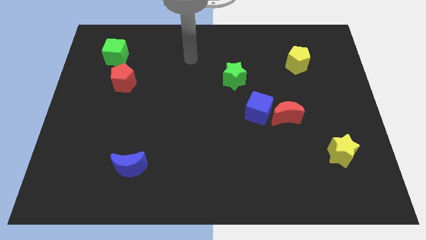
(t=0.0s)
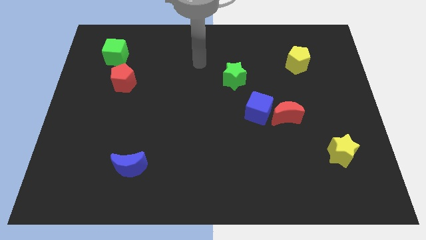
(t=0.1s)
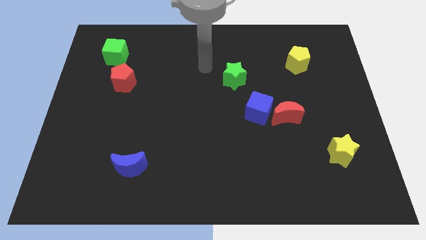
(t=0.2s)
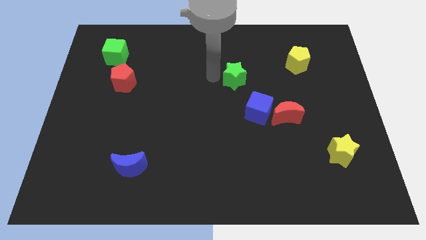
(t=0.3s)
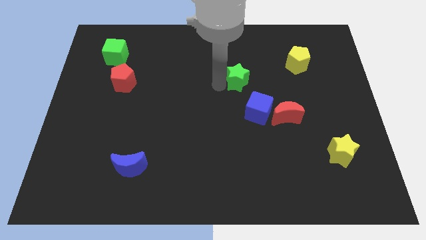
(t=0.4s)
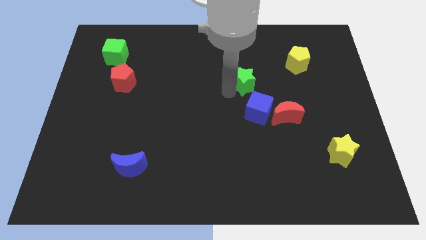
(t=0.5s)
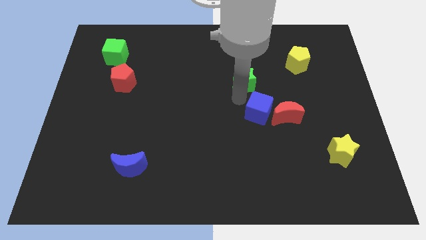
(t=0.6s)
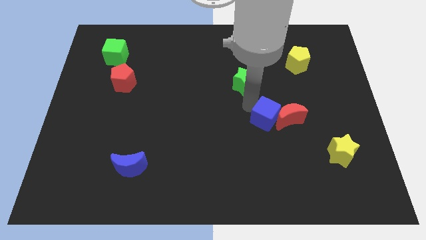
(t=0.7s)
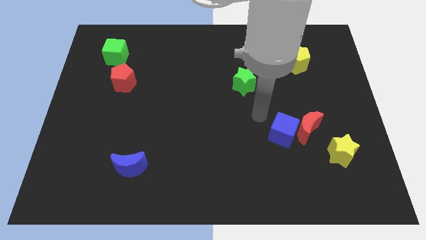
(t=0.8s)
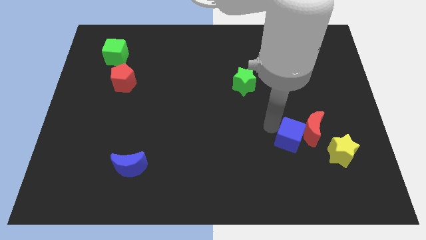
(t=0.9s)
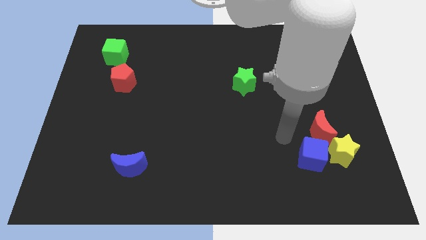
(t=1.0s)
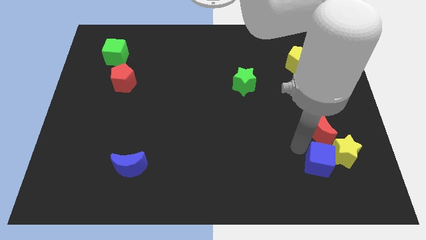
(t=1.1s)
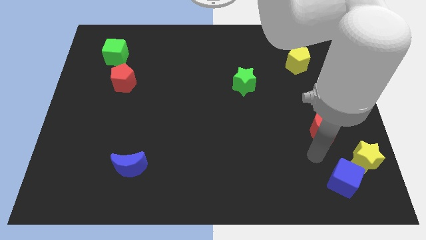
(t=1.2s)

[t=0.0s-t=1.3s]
pull the red moon apart from the blue cube

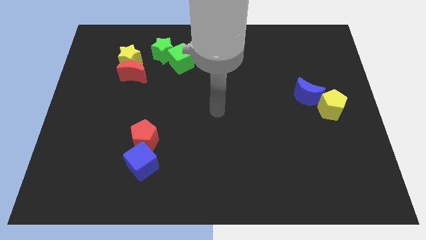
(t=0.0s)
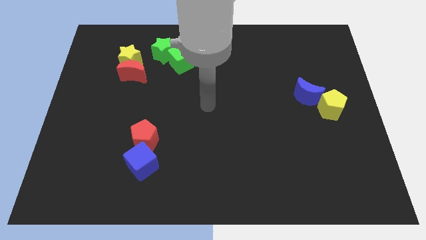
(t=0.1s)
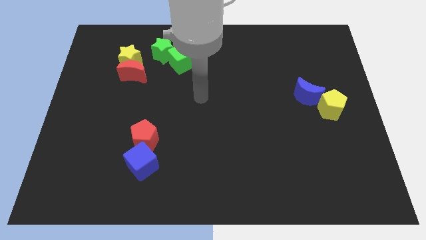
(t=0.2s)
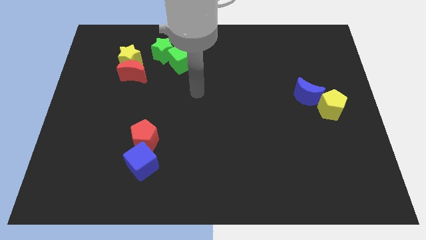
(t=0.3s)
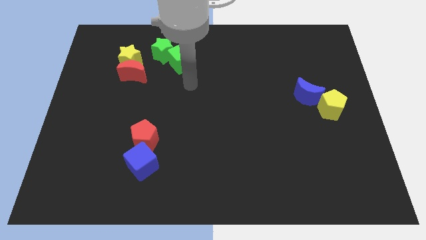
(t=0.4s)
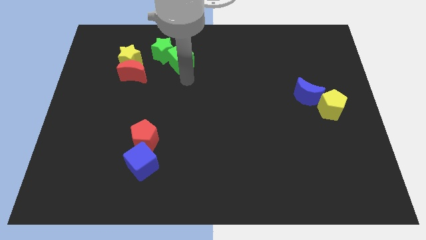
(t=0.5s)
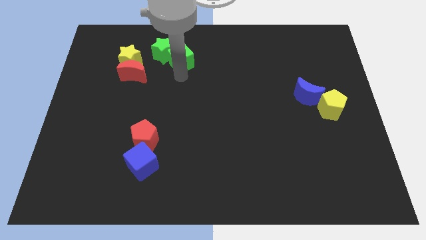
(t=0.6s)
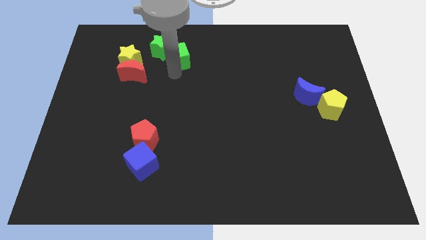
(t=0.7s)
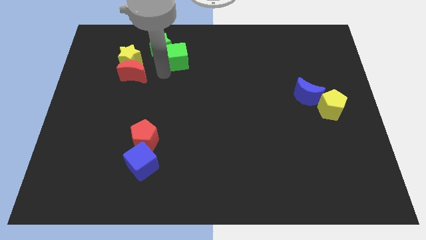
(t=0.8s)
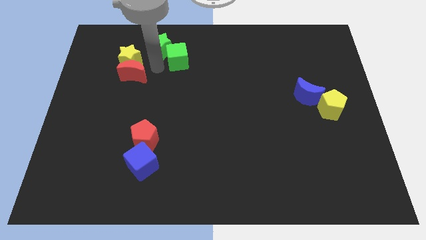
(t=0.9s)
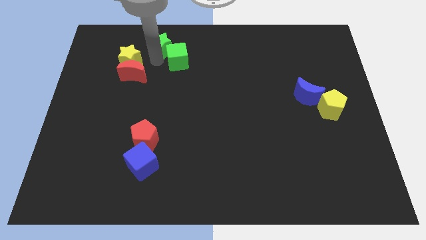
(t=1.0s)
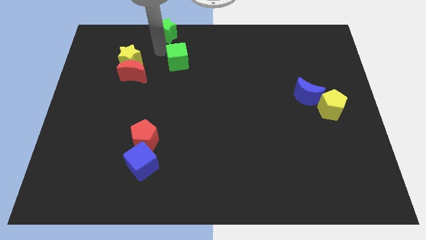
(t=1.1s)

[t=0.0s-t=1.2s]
pull the green cube apart from the green star

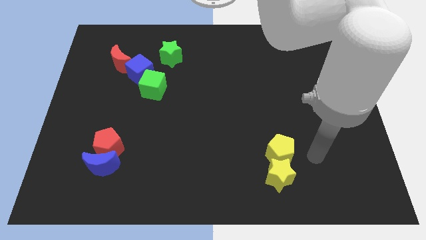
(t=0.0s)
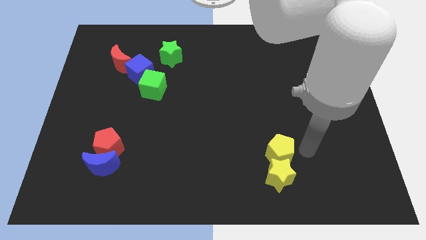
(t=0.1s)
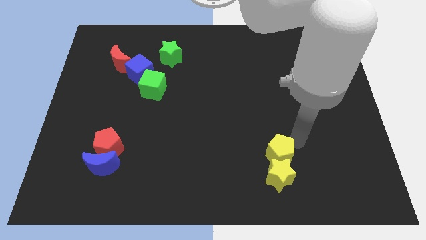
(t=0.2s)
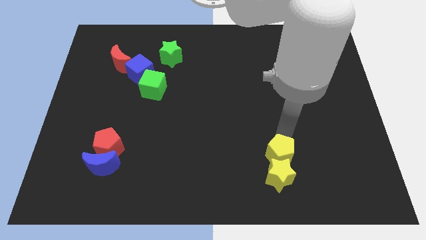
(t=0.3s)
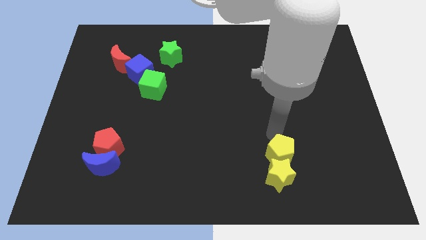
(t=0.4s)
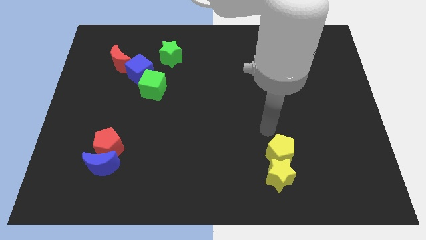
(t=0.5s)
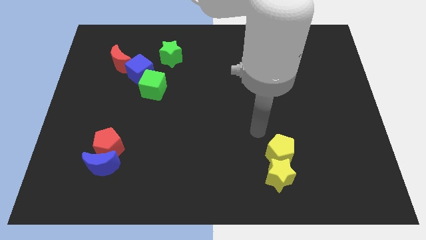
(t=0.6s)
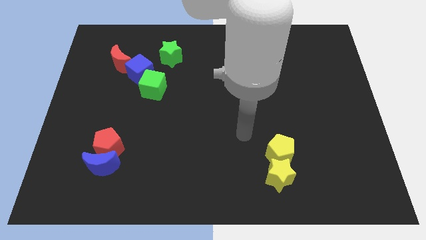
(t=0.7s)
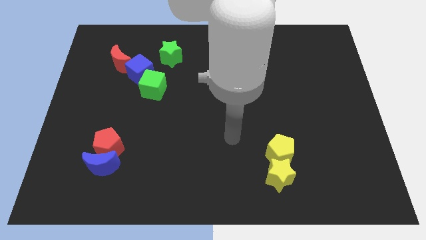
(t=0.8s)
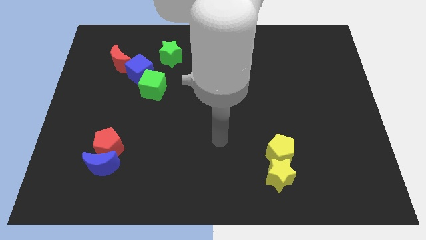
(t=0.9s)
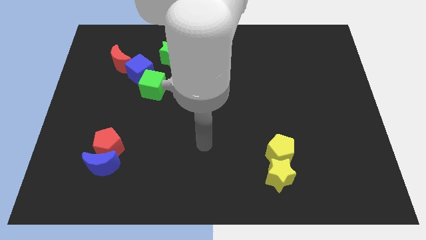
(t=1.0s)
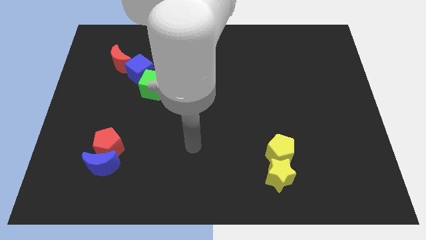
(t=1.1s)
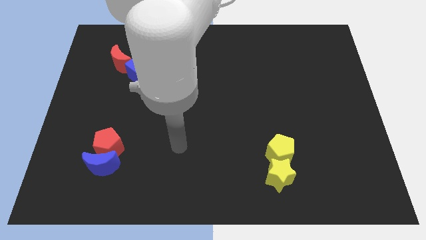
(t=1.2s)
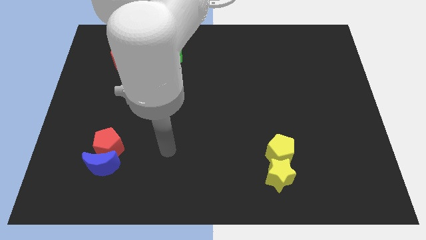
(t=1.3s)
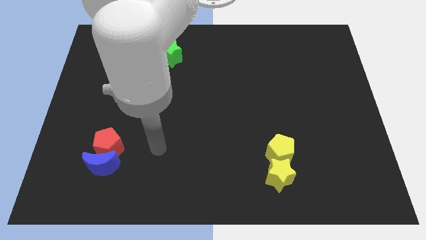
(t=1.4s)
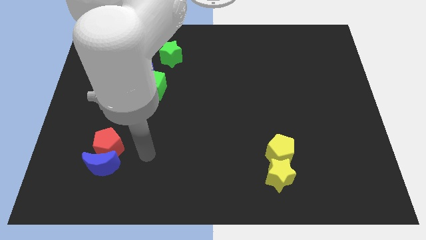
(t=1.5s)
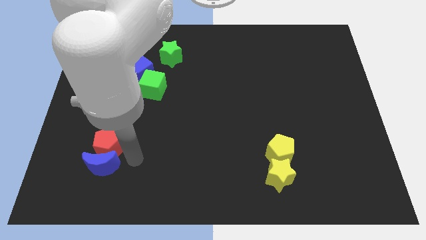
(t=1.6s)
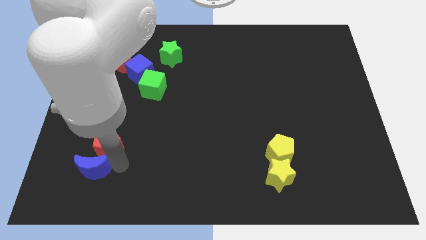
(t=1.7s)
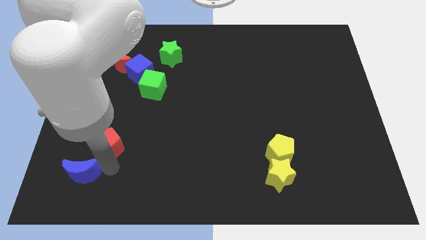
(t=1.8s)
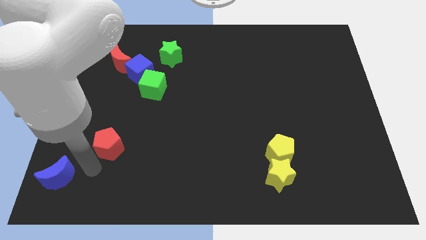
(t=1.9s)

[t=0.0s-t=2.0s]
move the red pentagon away from the blue moon

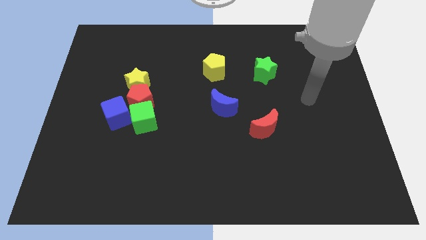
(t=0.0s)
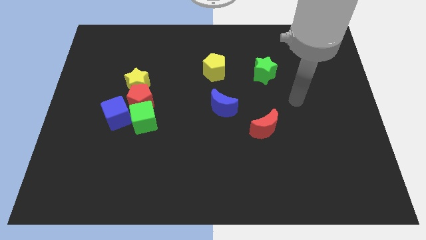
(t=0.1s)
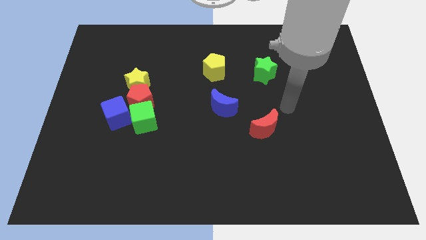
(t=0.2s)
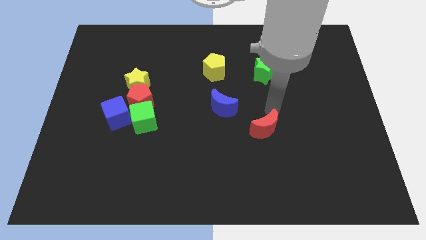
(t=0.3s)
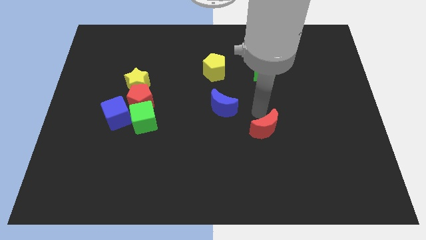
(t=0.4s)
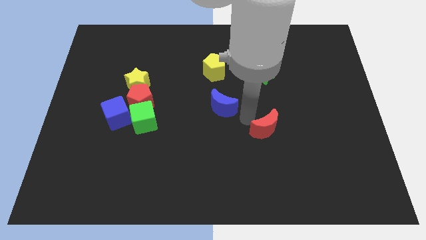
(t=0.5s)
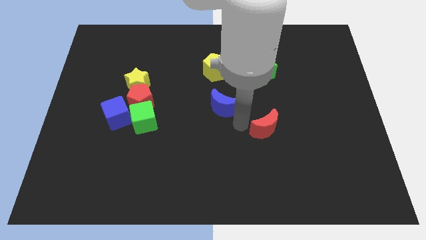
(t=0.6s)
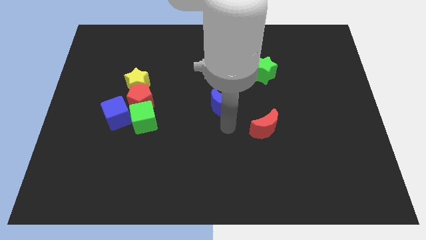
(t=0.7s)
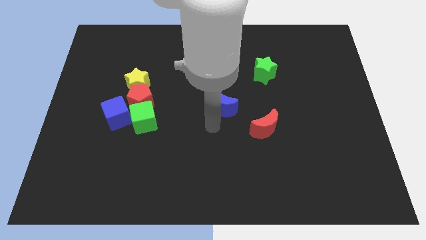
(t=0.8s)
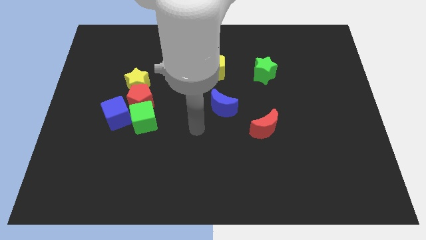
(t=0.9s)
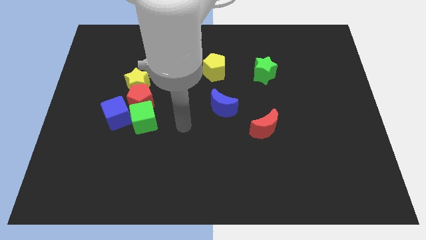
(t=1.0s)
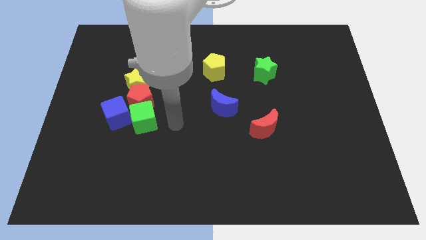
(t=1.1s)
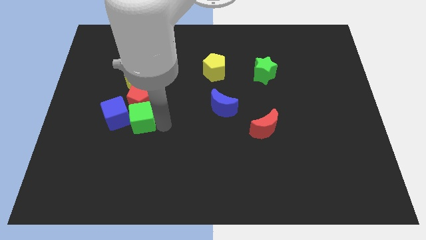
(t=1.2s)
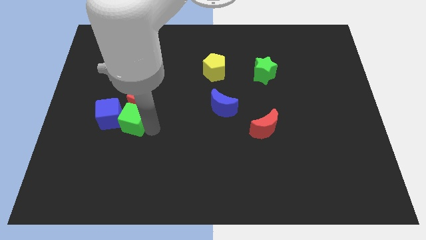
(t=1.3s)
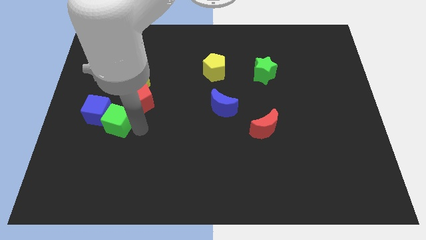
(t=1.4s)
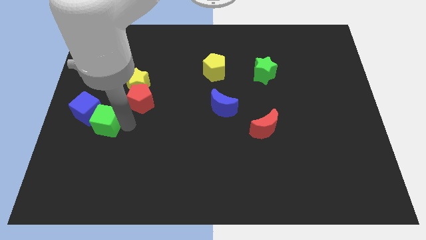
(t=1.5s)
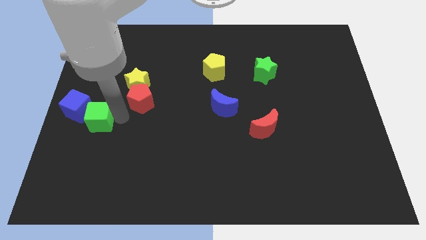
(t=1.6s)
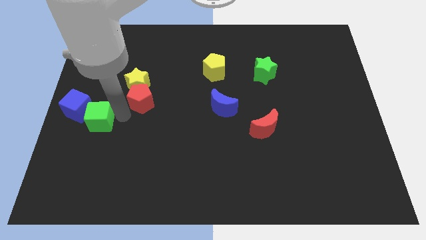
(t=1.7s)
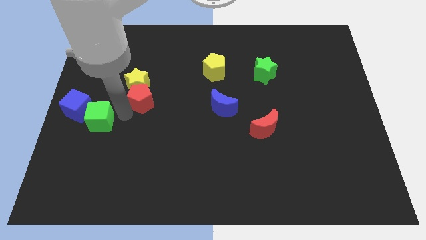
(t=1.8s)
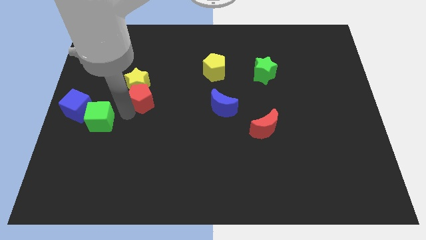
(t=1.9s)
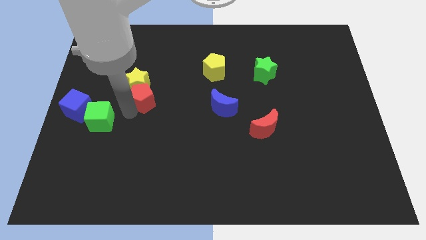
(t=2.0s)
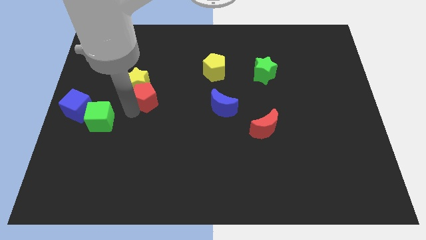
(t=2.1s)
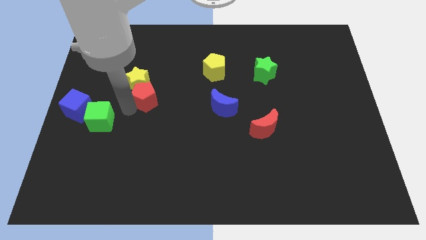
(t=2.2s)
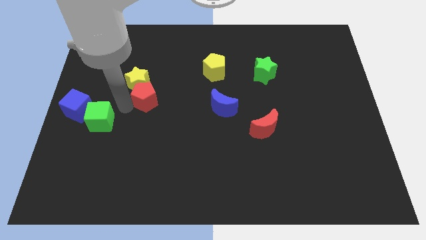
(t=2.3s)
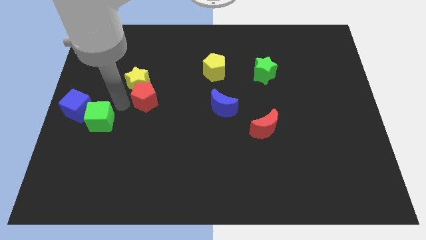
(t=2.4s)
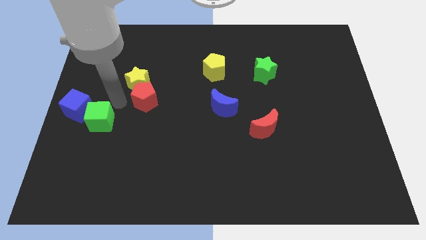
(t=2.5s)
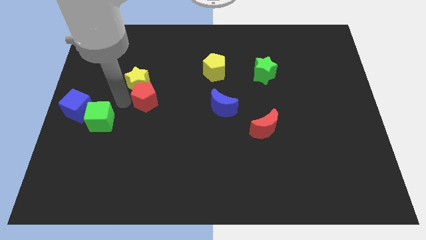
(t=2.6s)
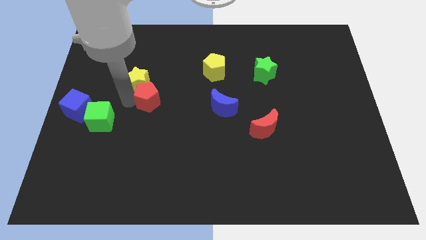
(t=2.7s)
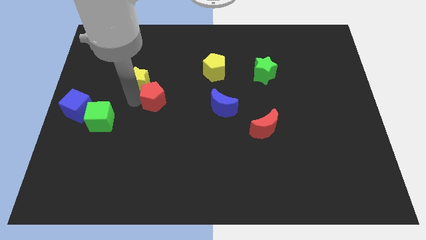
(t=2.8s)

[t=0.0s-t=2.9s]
pull the red pentagon apart from the yellow star, green cube, and blue cube

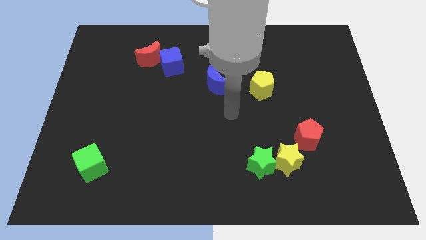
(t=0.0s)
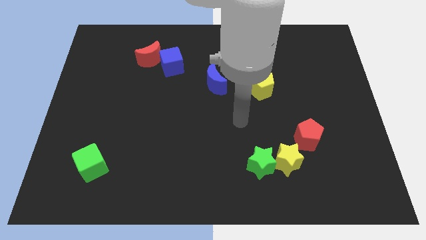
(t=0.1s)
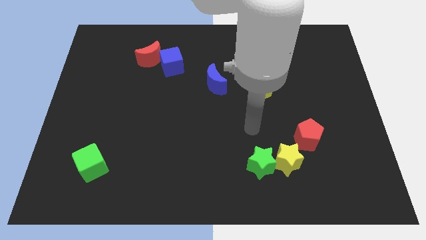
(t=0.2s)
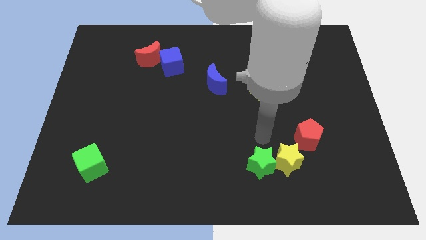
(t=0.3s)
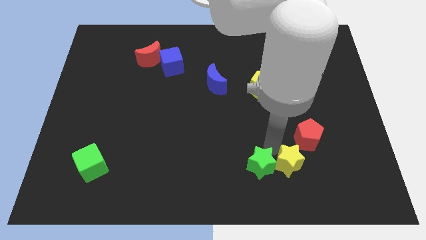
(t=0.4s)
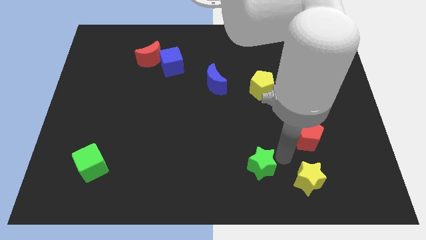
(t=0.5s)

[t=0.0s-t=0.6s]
move the green star away from the yellow star

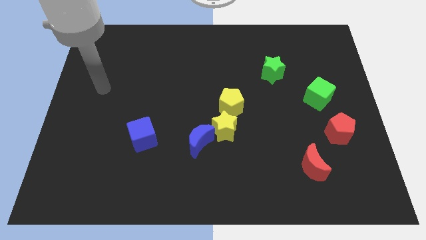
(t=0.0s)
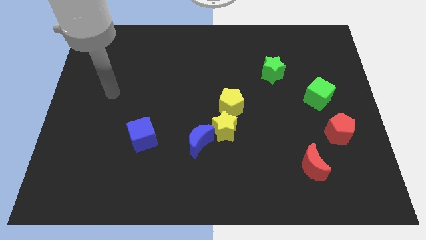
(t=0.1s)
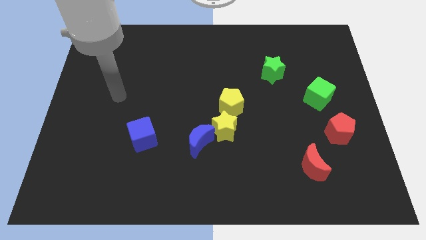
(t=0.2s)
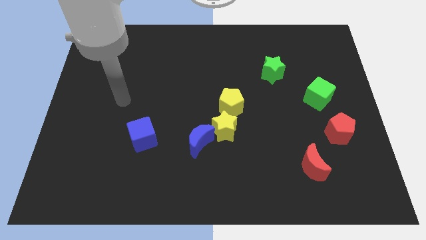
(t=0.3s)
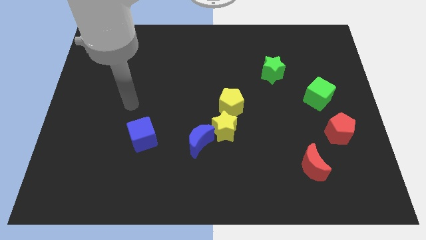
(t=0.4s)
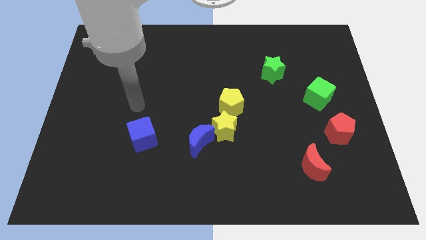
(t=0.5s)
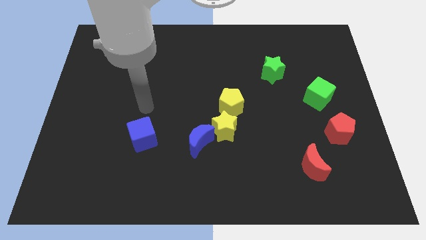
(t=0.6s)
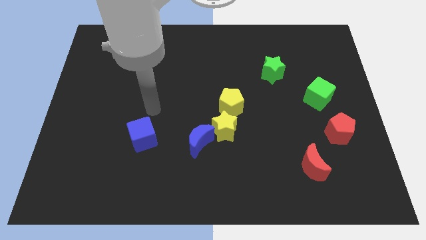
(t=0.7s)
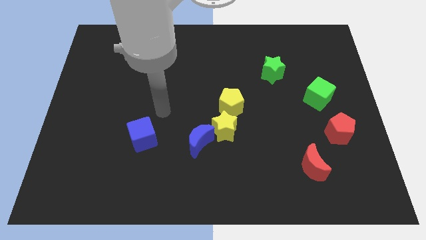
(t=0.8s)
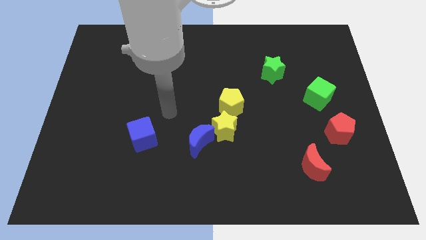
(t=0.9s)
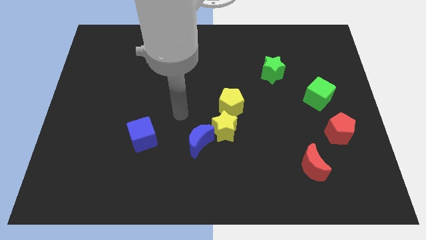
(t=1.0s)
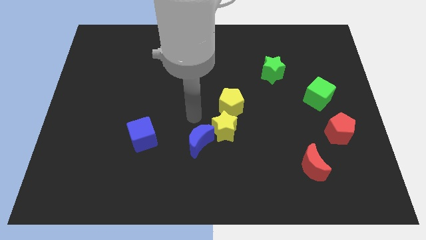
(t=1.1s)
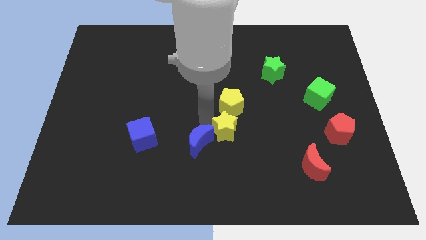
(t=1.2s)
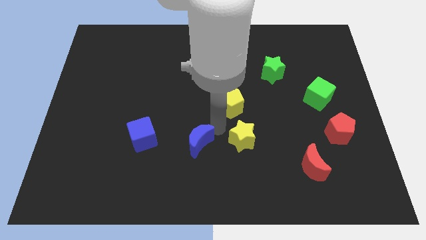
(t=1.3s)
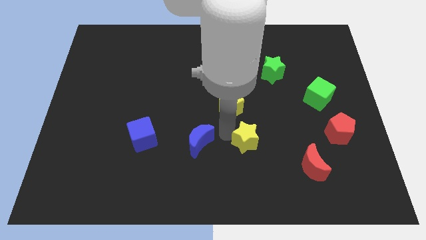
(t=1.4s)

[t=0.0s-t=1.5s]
separate the blue moon from the yellow star
